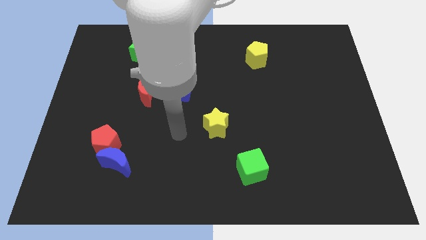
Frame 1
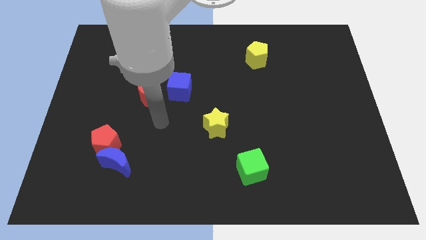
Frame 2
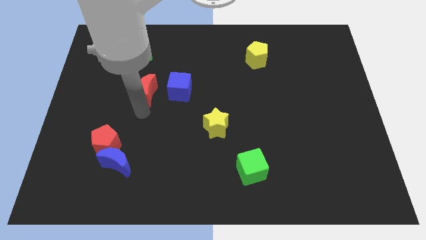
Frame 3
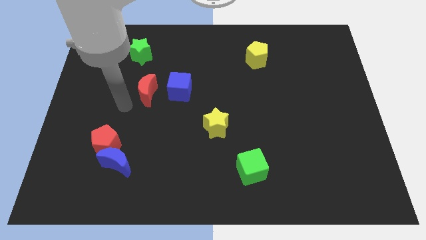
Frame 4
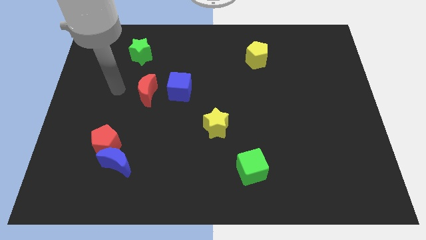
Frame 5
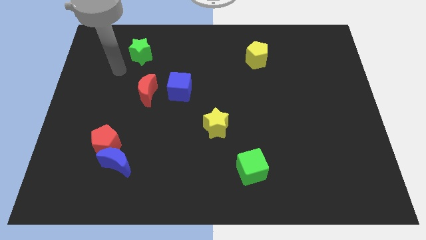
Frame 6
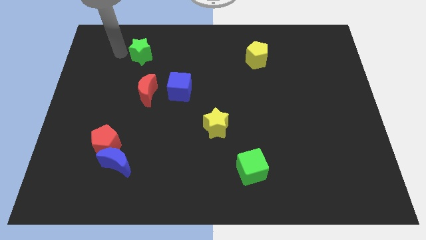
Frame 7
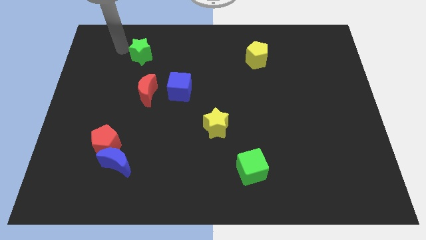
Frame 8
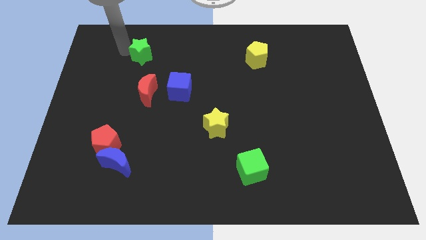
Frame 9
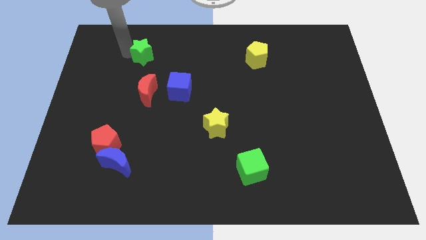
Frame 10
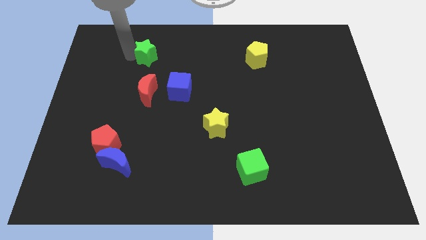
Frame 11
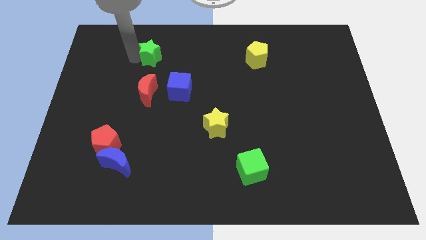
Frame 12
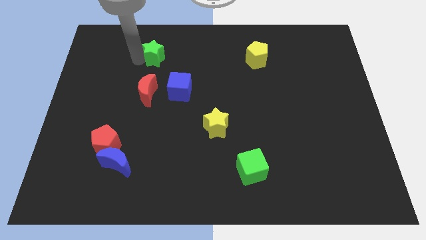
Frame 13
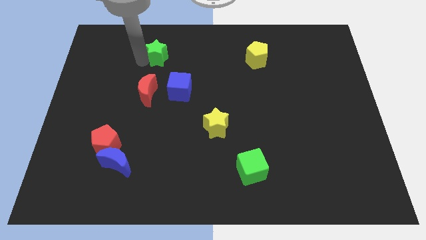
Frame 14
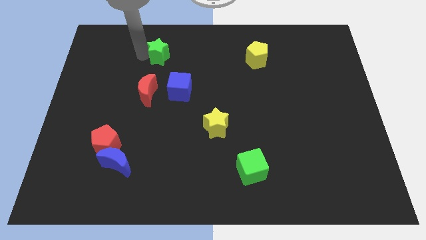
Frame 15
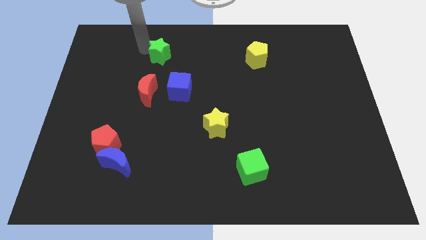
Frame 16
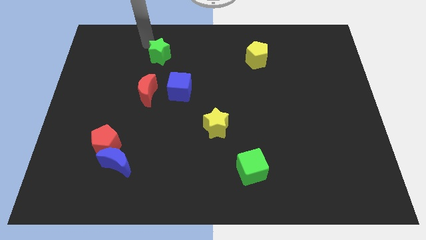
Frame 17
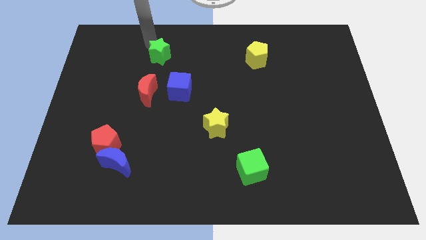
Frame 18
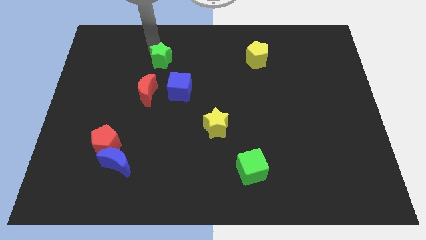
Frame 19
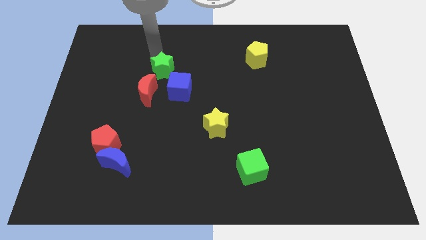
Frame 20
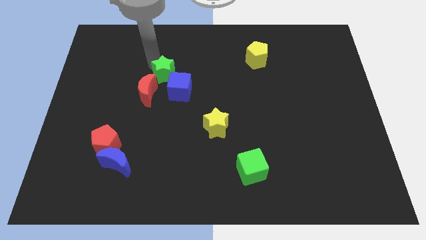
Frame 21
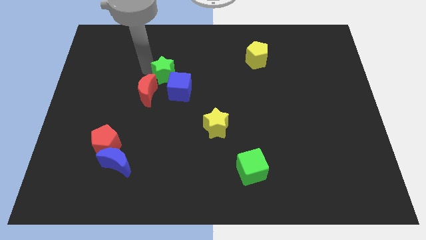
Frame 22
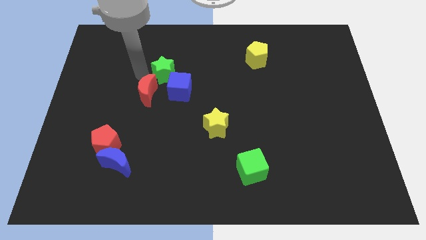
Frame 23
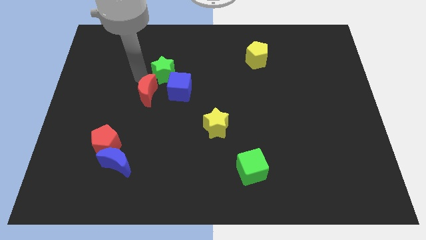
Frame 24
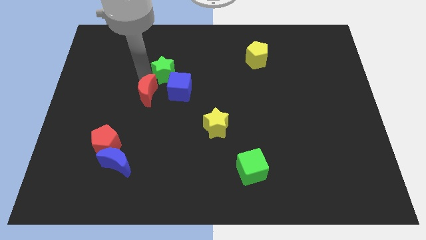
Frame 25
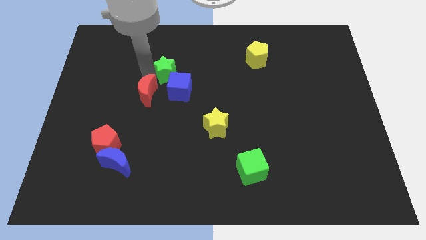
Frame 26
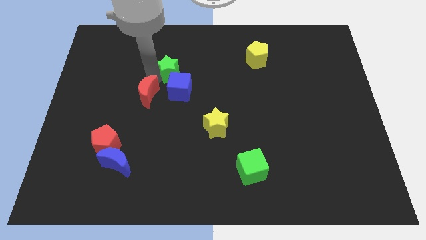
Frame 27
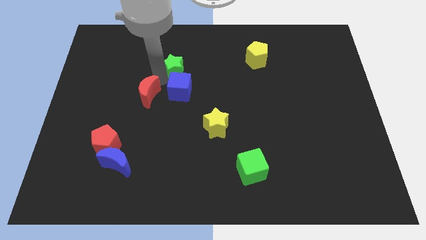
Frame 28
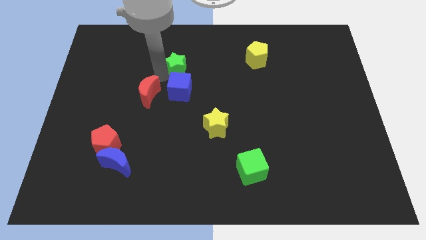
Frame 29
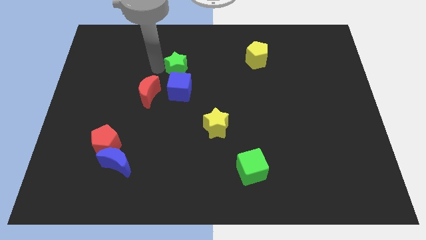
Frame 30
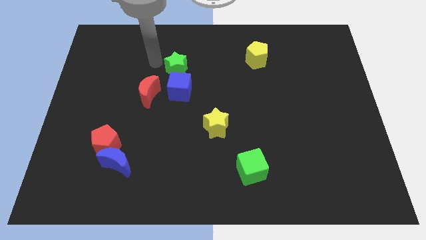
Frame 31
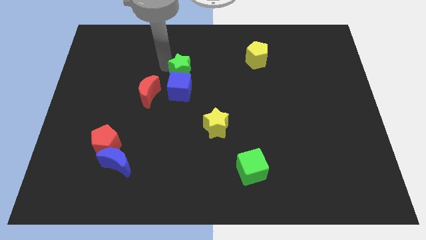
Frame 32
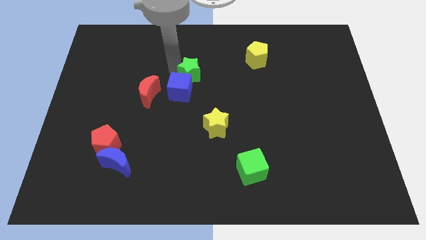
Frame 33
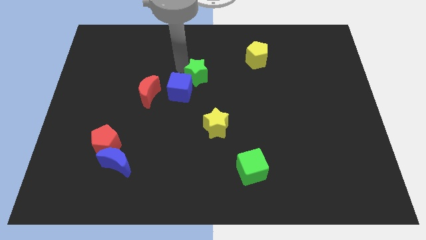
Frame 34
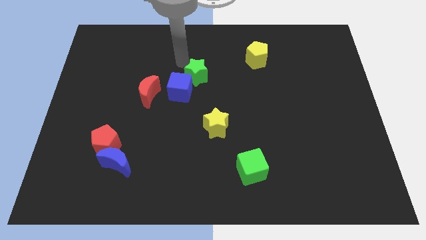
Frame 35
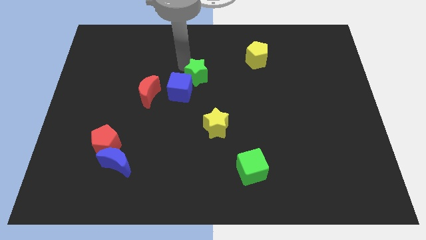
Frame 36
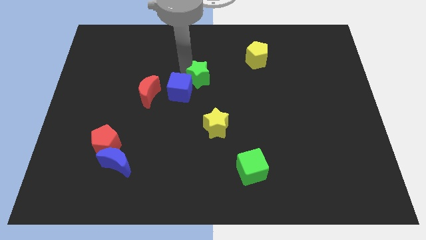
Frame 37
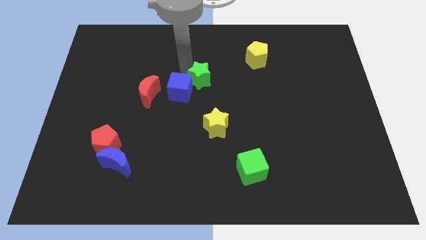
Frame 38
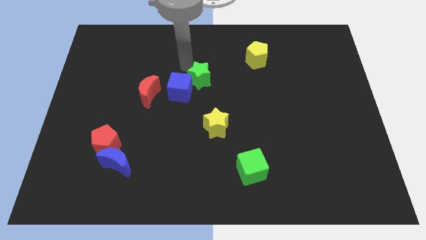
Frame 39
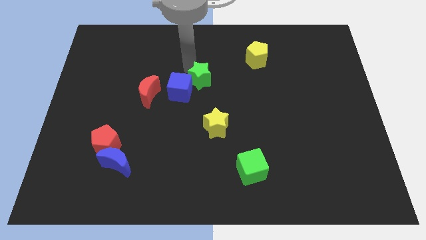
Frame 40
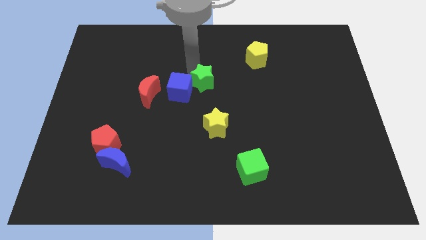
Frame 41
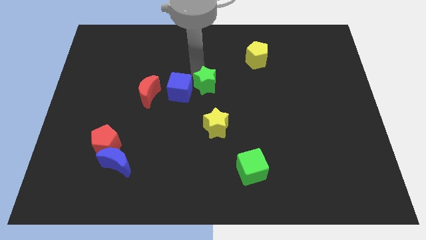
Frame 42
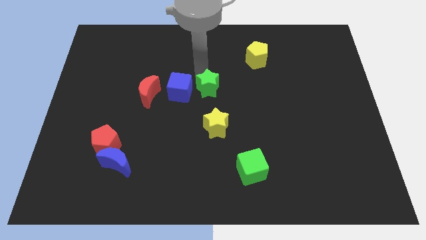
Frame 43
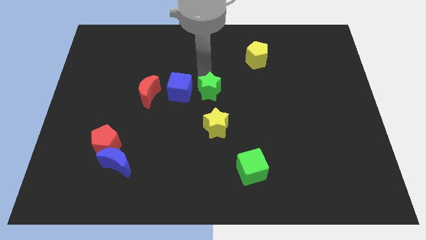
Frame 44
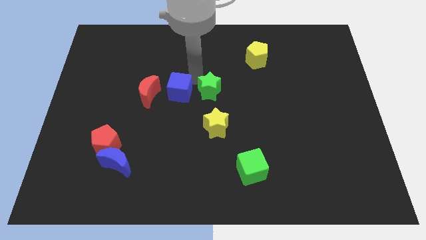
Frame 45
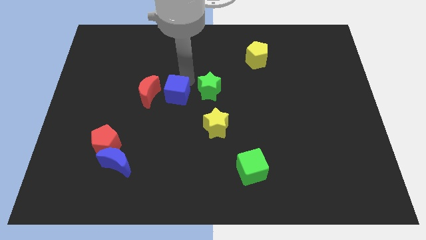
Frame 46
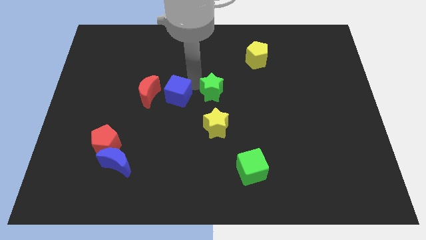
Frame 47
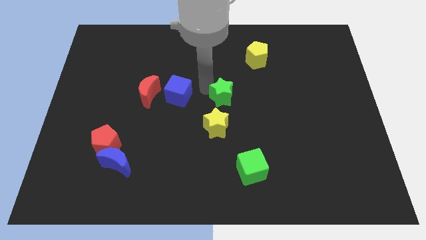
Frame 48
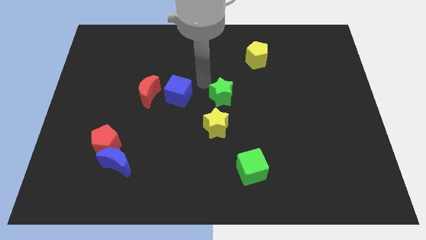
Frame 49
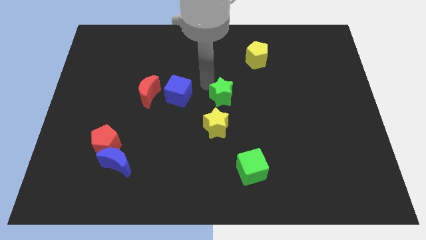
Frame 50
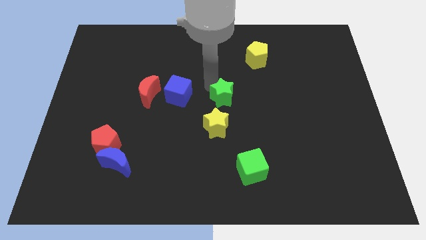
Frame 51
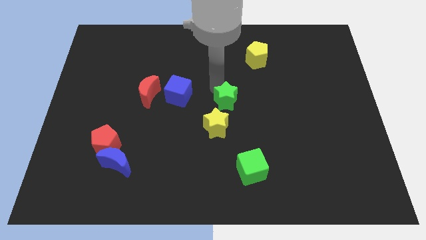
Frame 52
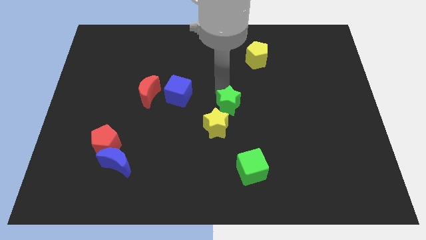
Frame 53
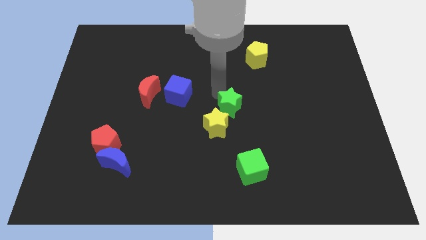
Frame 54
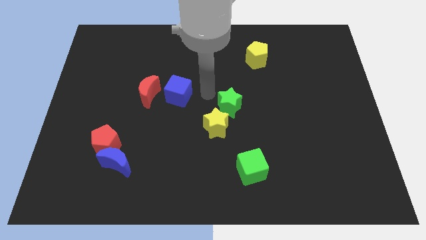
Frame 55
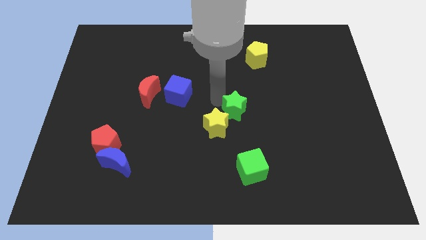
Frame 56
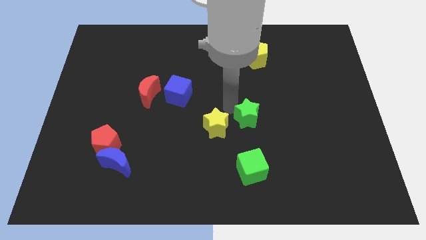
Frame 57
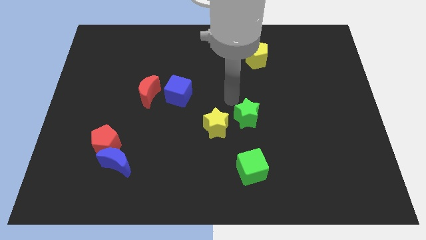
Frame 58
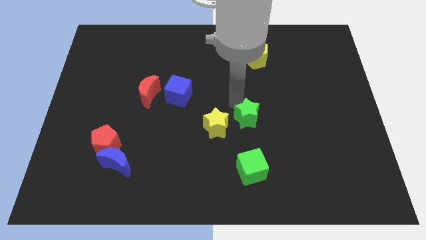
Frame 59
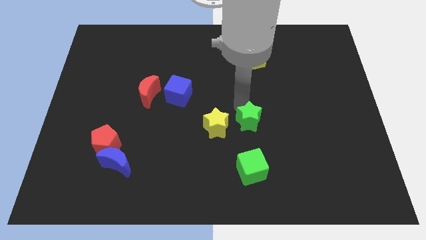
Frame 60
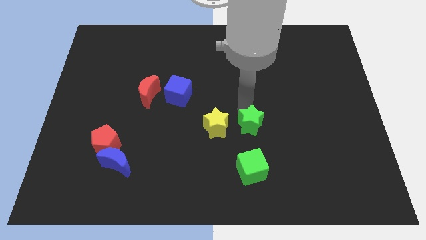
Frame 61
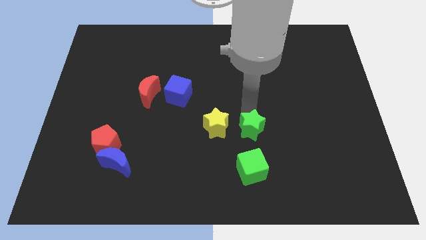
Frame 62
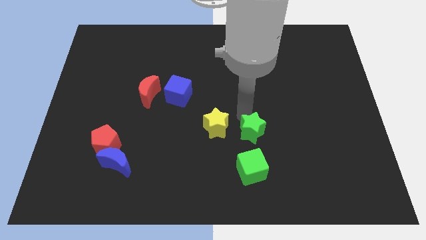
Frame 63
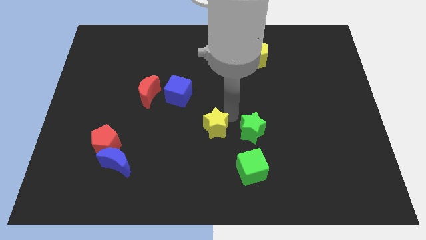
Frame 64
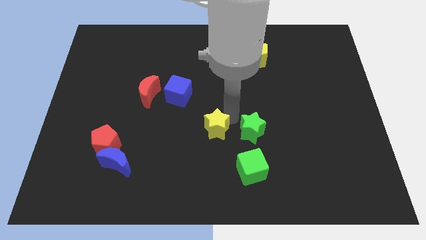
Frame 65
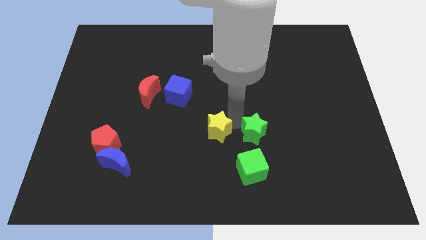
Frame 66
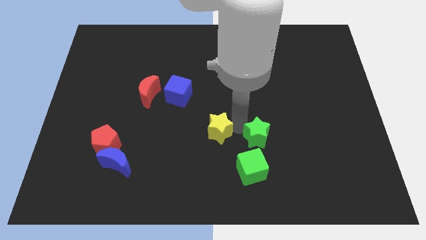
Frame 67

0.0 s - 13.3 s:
slide the green star to the top right side of the green cube

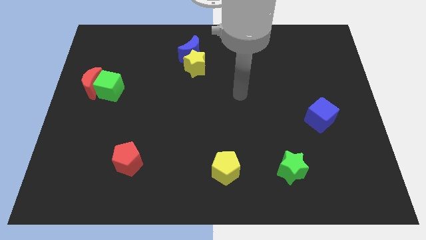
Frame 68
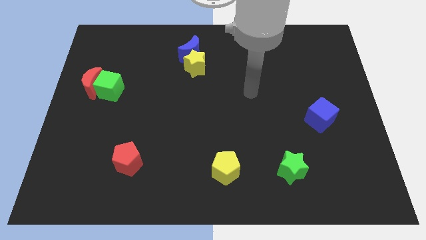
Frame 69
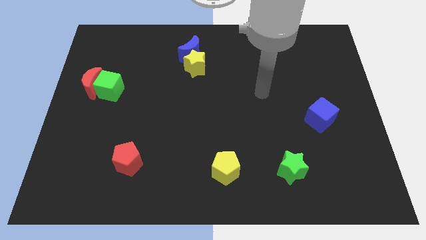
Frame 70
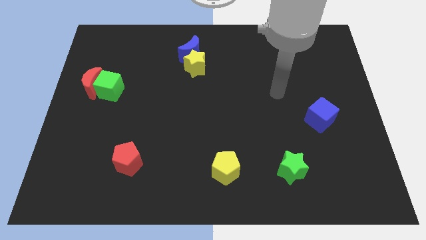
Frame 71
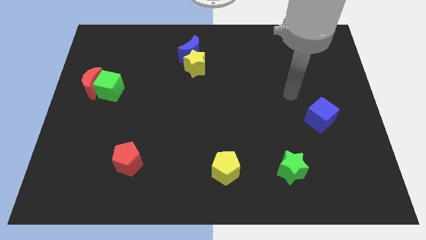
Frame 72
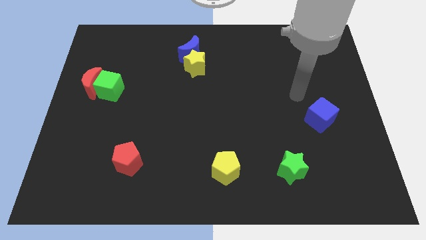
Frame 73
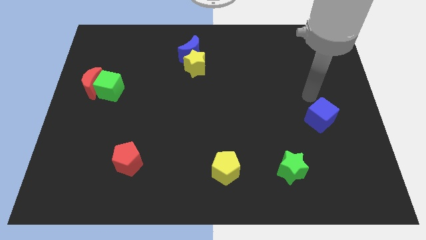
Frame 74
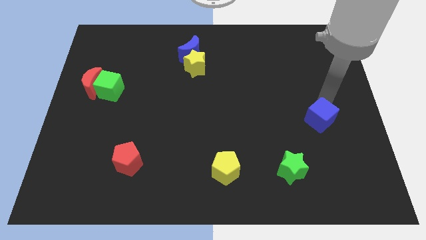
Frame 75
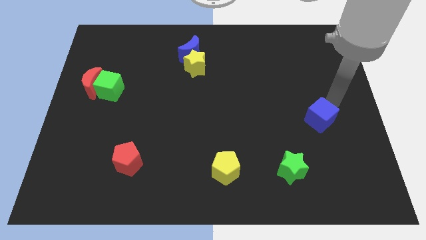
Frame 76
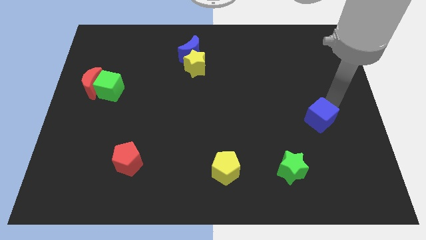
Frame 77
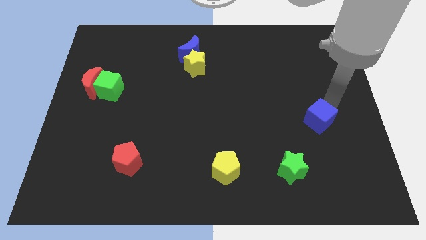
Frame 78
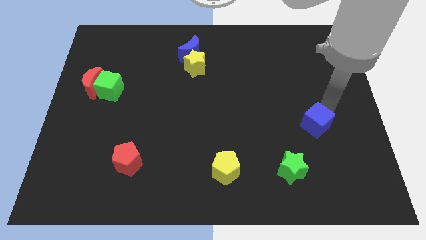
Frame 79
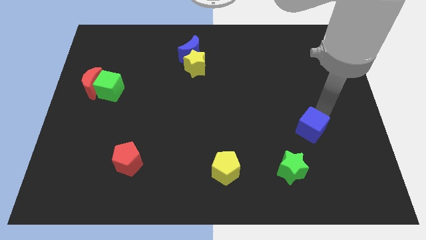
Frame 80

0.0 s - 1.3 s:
put the blue cube diagonally up and to the right of the green star
